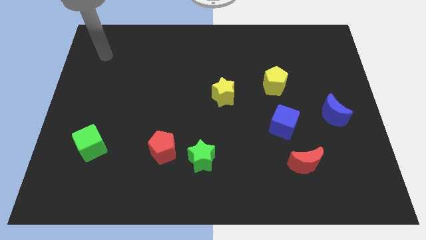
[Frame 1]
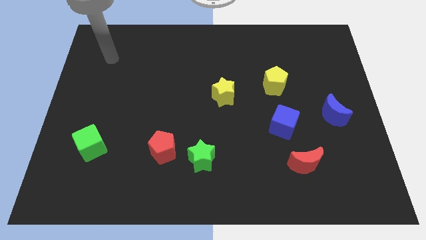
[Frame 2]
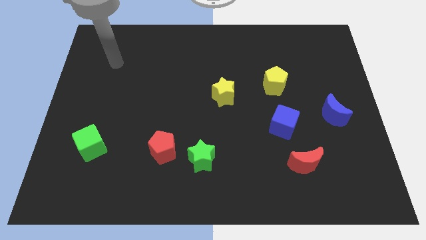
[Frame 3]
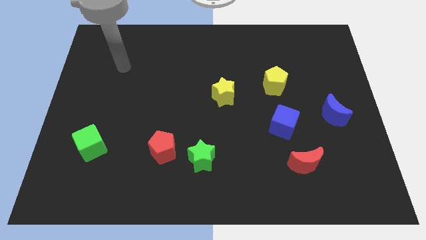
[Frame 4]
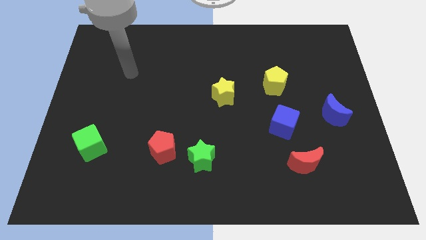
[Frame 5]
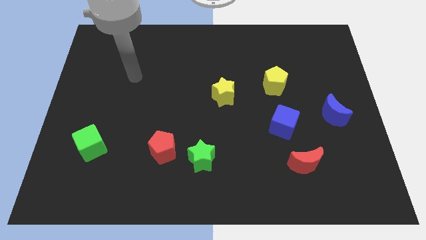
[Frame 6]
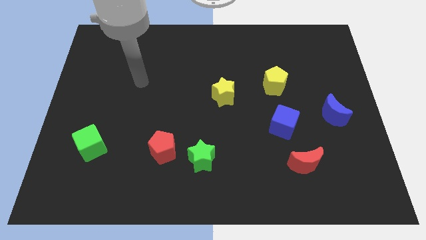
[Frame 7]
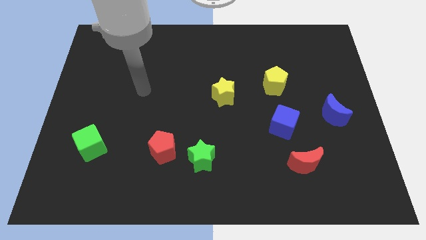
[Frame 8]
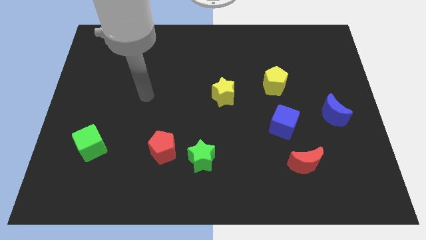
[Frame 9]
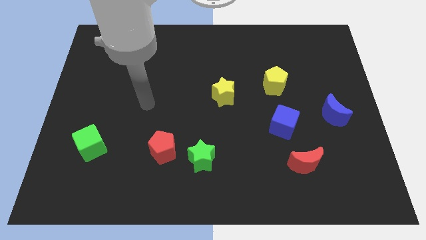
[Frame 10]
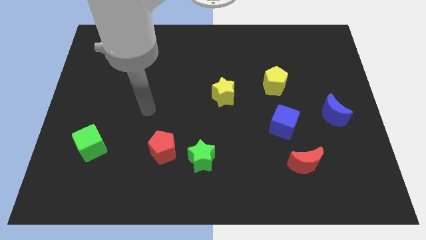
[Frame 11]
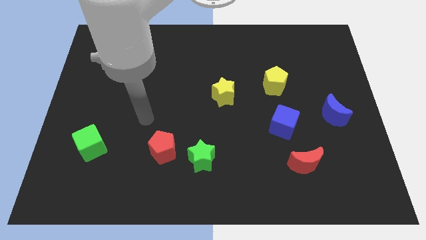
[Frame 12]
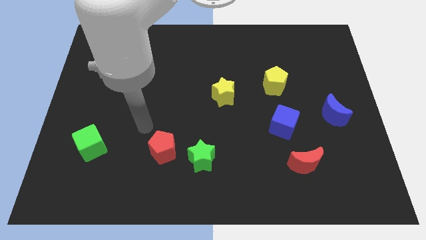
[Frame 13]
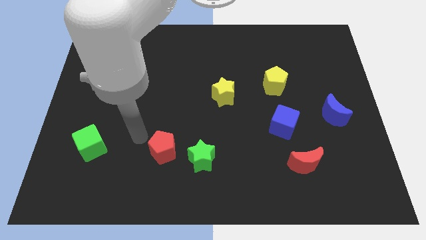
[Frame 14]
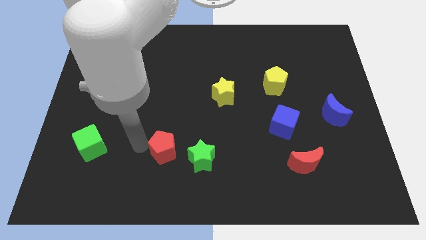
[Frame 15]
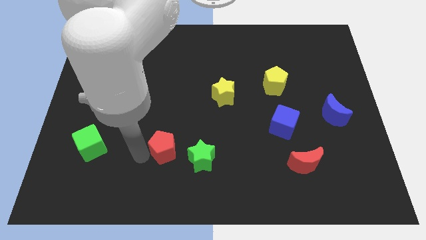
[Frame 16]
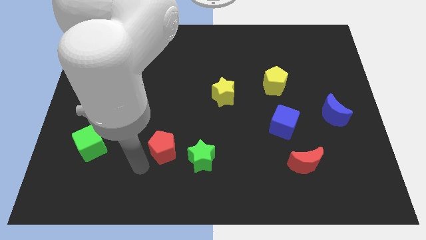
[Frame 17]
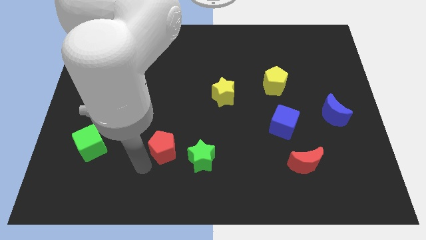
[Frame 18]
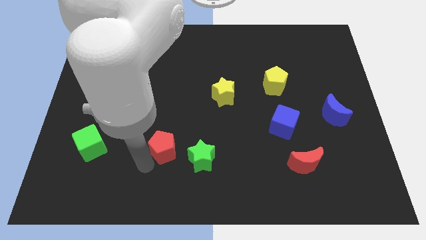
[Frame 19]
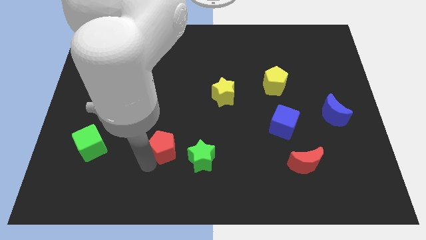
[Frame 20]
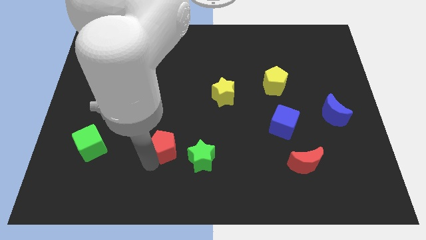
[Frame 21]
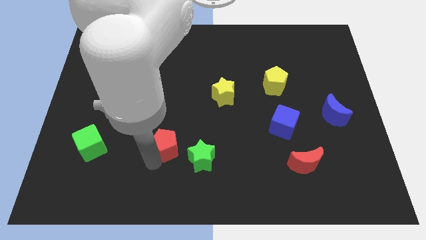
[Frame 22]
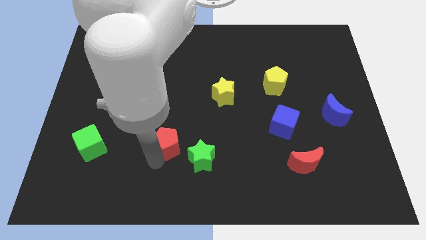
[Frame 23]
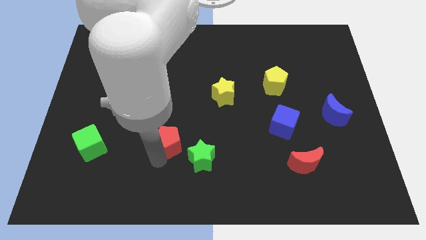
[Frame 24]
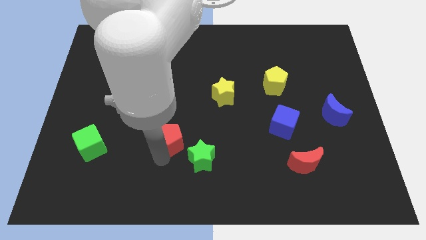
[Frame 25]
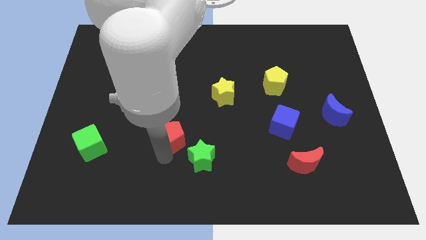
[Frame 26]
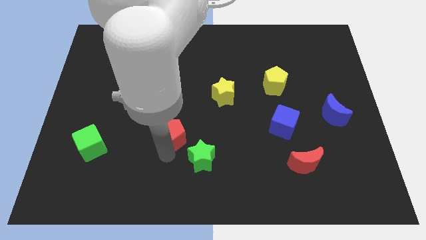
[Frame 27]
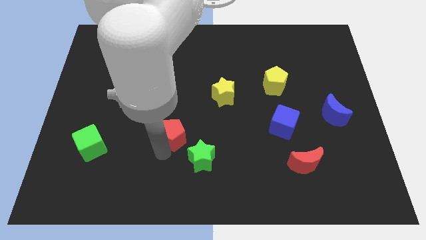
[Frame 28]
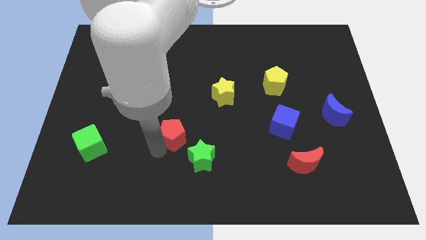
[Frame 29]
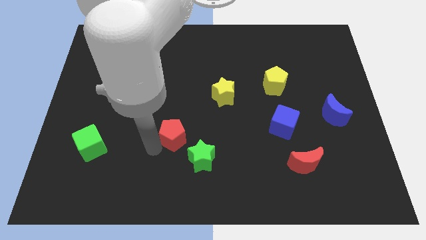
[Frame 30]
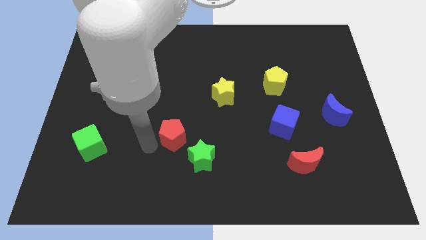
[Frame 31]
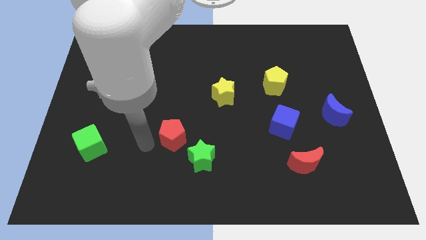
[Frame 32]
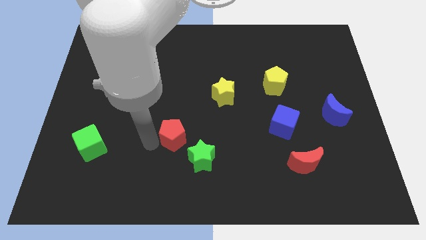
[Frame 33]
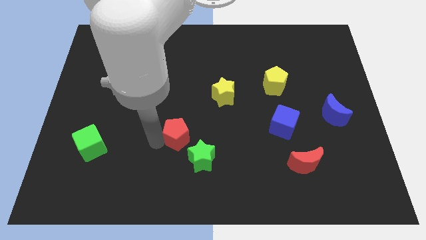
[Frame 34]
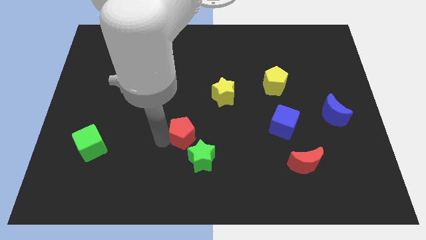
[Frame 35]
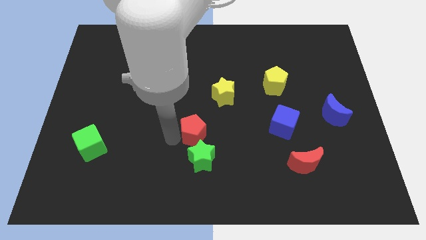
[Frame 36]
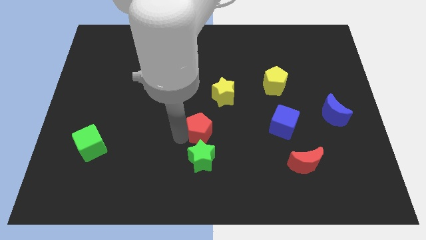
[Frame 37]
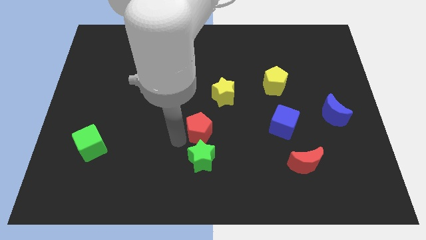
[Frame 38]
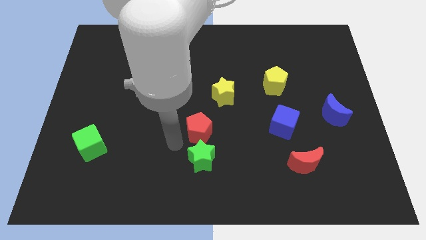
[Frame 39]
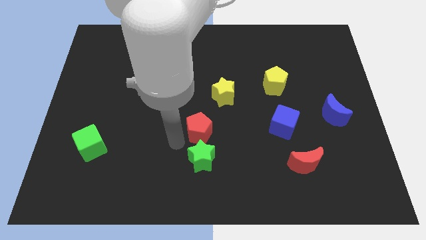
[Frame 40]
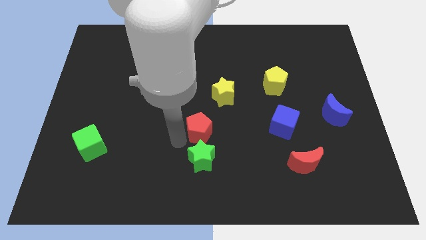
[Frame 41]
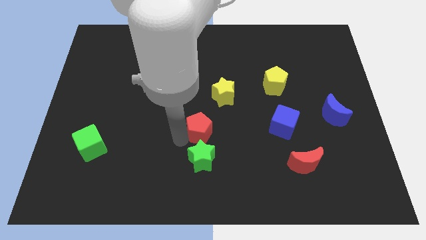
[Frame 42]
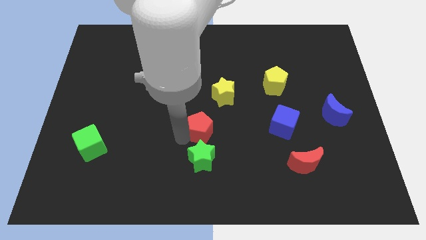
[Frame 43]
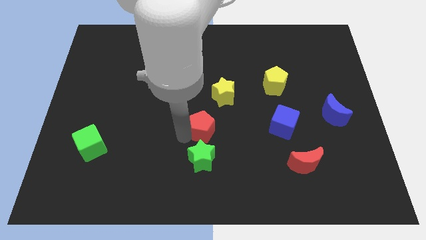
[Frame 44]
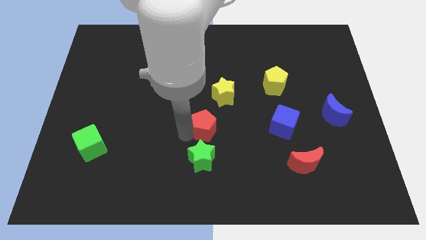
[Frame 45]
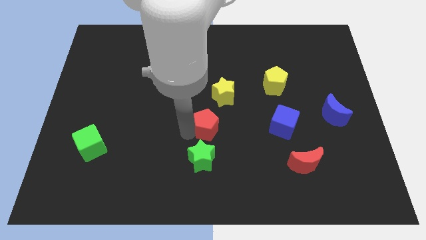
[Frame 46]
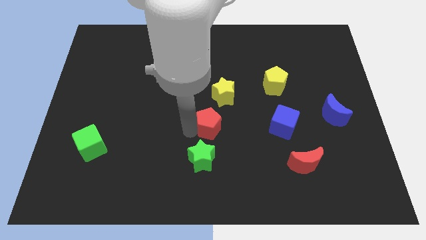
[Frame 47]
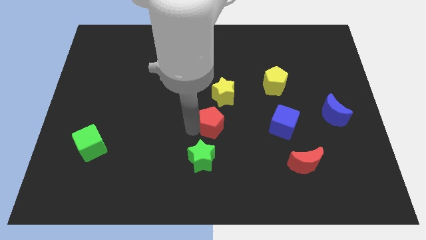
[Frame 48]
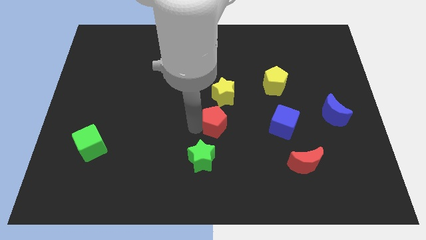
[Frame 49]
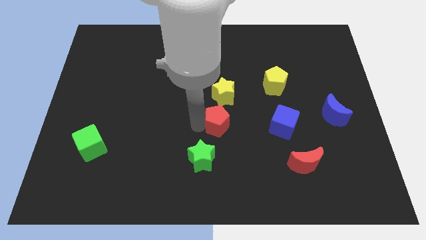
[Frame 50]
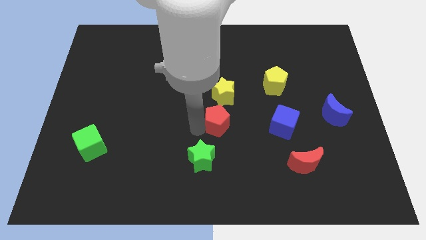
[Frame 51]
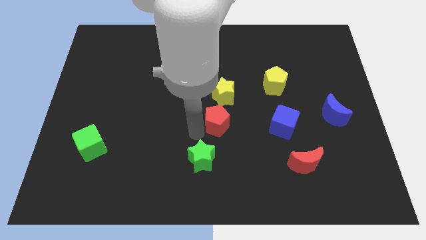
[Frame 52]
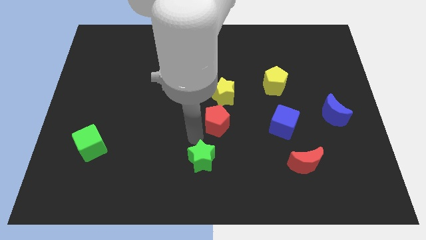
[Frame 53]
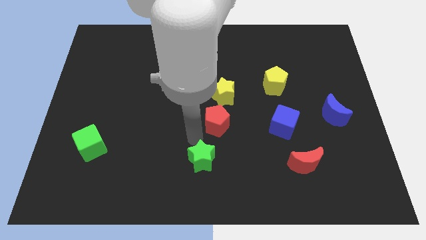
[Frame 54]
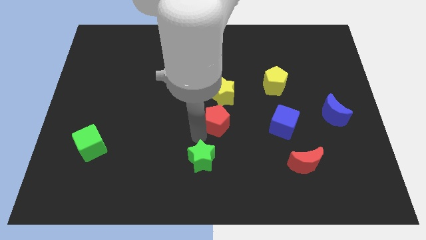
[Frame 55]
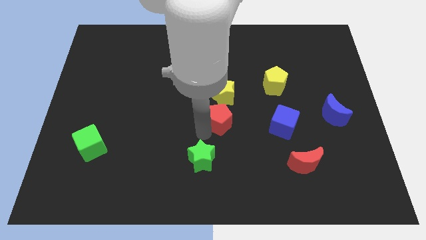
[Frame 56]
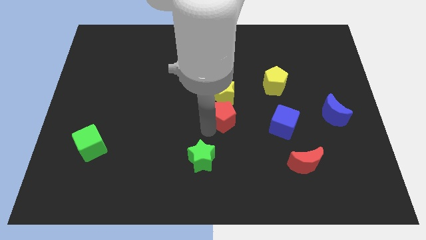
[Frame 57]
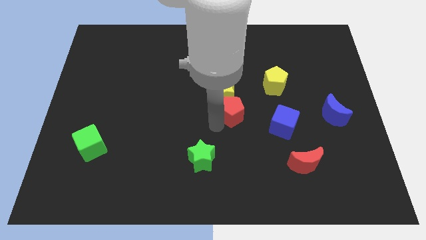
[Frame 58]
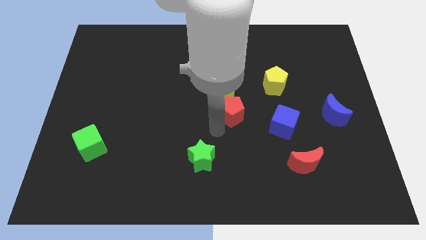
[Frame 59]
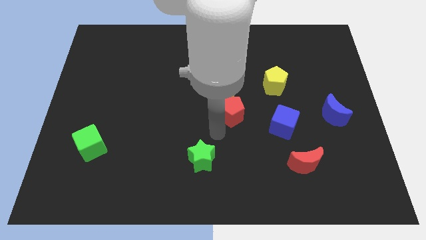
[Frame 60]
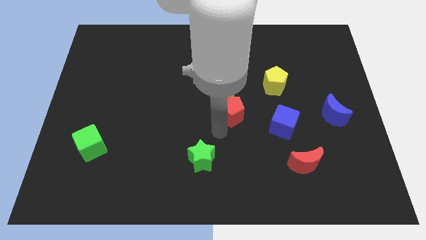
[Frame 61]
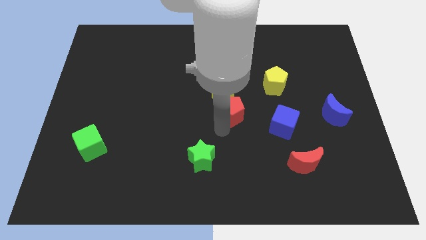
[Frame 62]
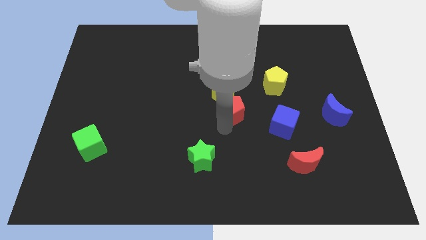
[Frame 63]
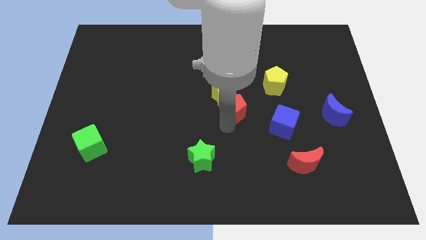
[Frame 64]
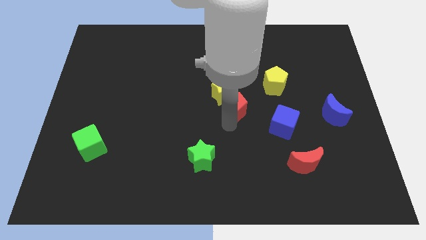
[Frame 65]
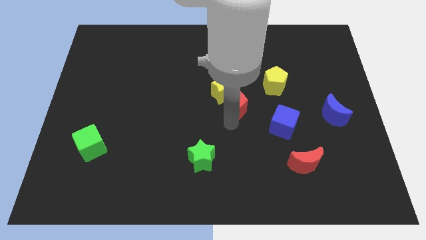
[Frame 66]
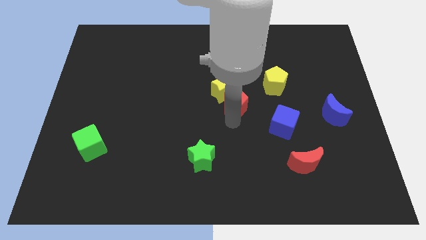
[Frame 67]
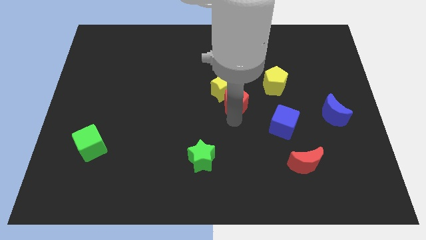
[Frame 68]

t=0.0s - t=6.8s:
slide the red pentagon up and then right

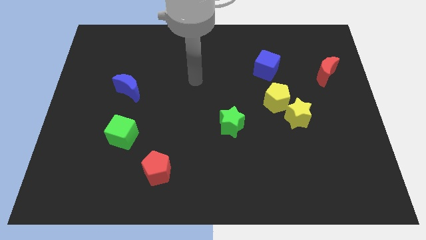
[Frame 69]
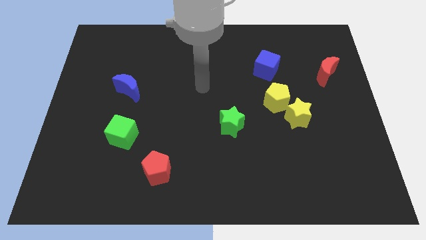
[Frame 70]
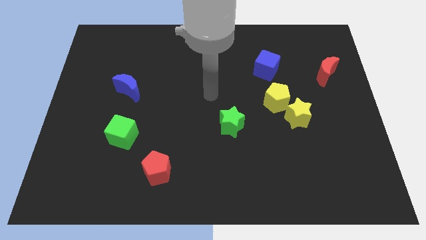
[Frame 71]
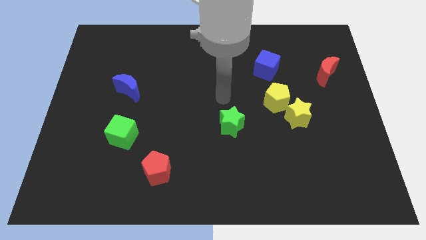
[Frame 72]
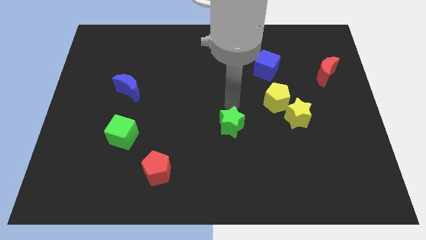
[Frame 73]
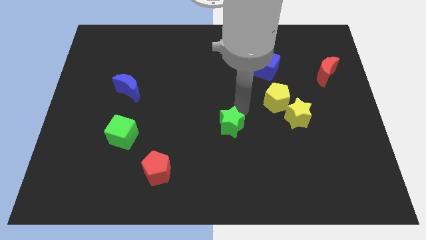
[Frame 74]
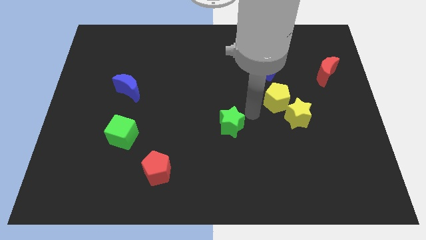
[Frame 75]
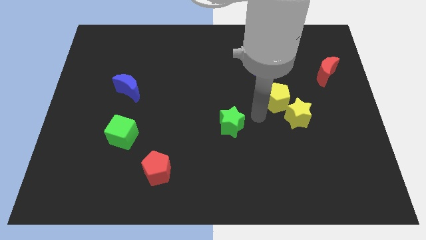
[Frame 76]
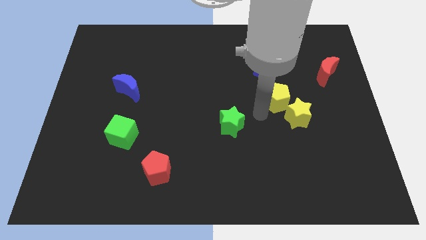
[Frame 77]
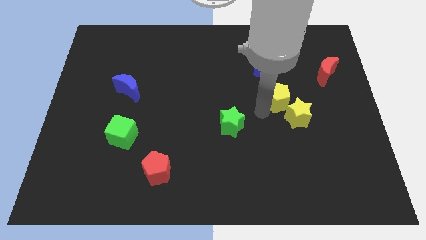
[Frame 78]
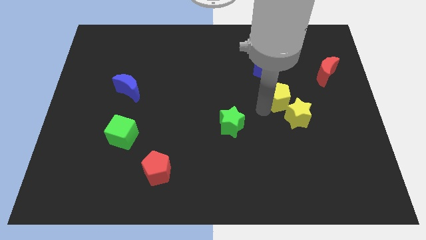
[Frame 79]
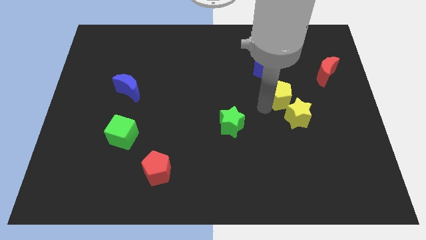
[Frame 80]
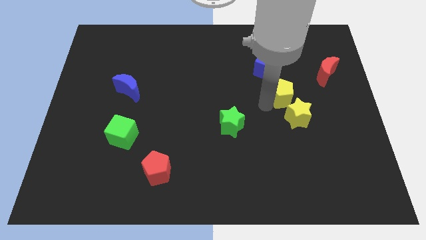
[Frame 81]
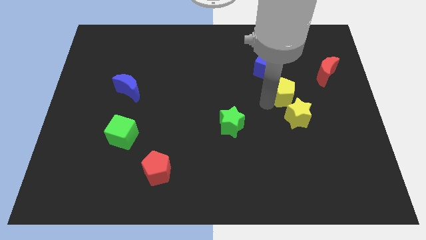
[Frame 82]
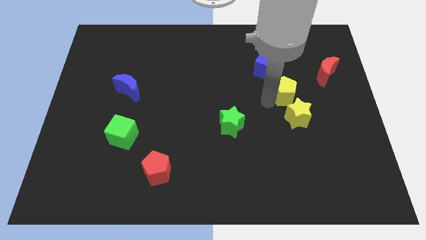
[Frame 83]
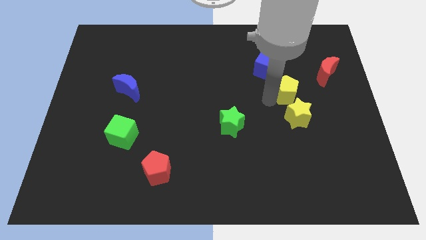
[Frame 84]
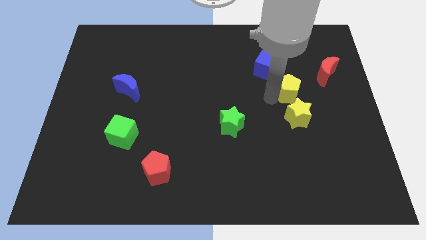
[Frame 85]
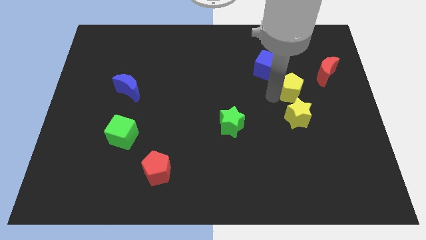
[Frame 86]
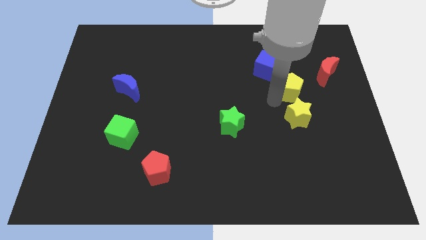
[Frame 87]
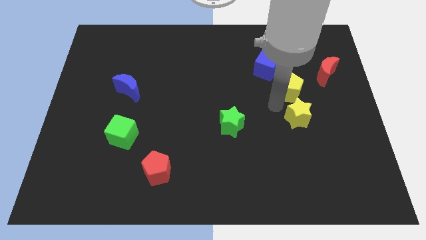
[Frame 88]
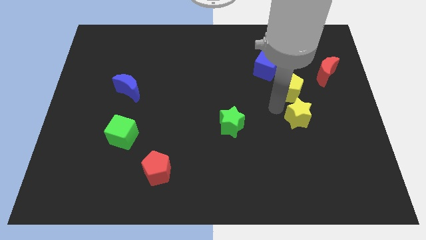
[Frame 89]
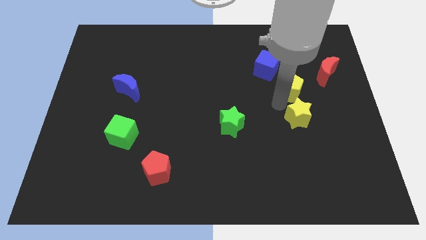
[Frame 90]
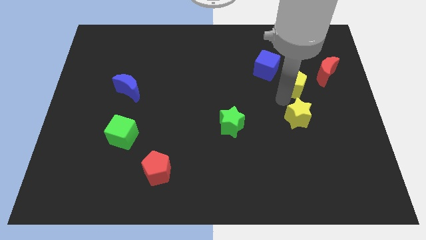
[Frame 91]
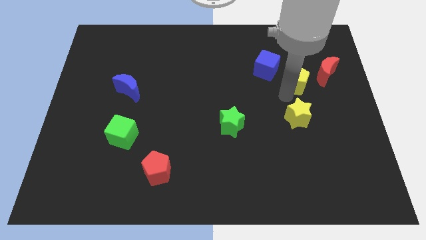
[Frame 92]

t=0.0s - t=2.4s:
push the yellow pentagon upwards and then to the right somewhat
